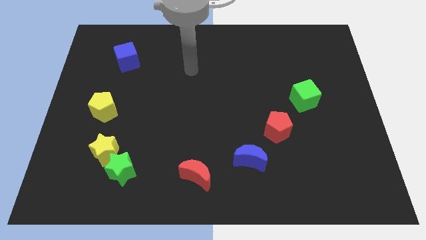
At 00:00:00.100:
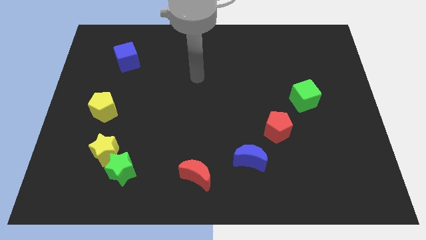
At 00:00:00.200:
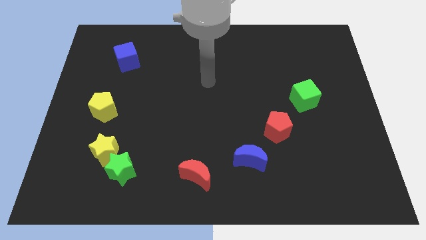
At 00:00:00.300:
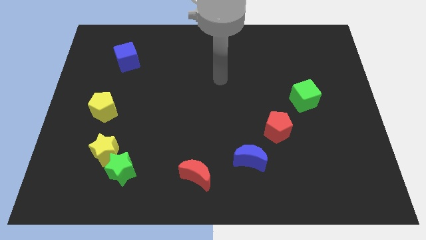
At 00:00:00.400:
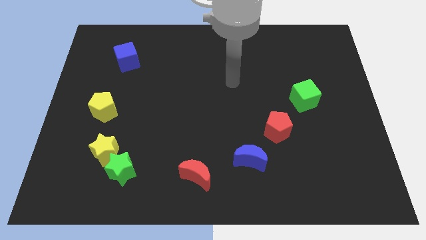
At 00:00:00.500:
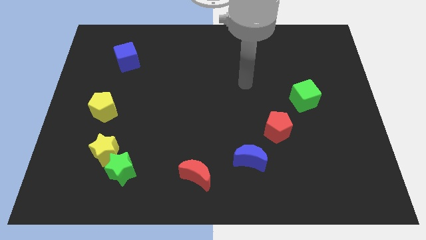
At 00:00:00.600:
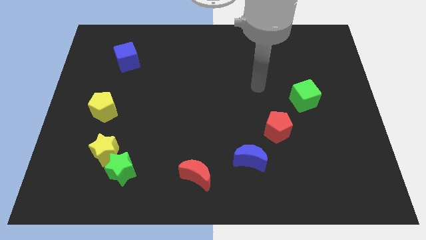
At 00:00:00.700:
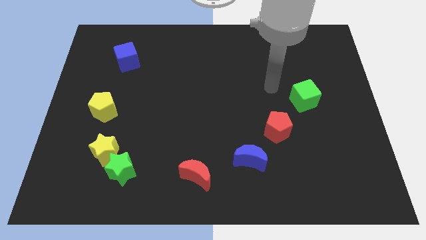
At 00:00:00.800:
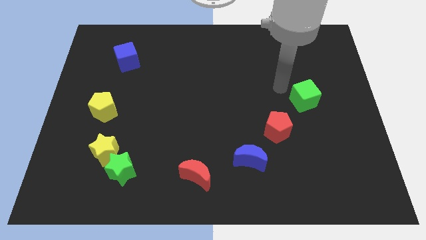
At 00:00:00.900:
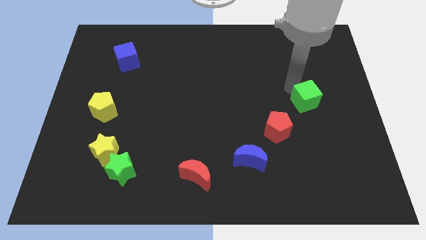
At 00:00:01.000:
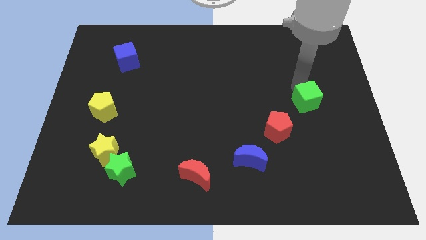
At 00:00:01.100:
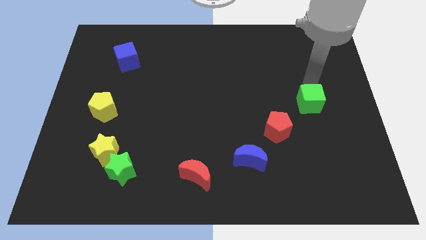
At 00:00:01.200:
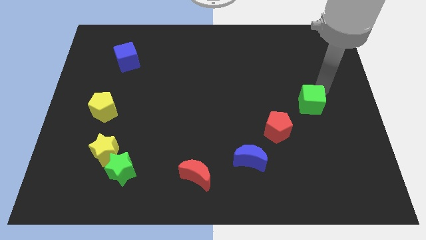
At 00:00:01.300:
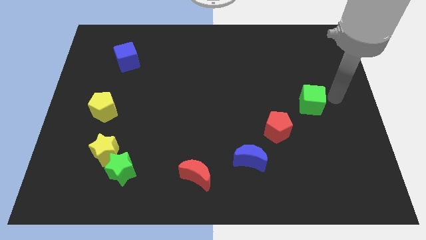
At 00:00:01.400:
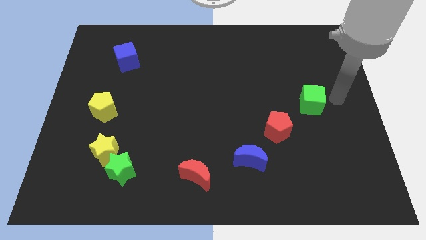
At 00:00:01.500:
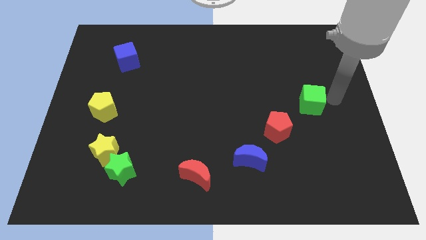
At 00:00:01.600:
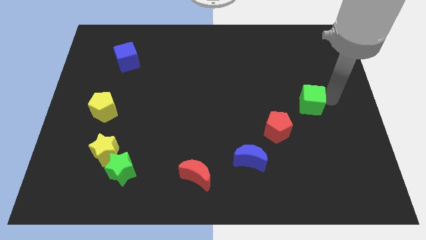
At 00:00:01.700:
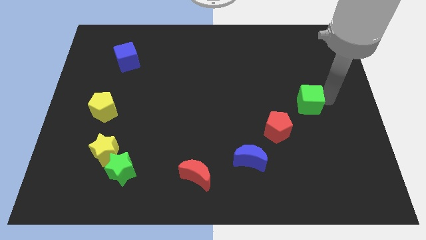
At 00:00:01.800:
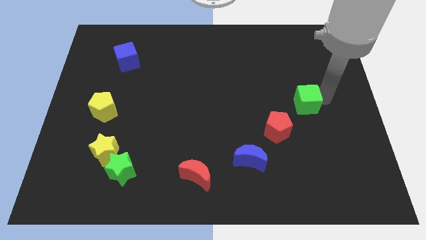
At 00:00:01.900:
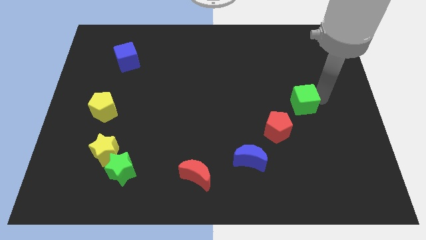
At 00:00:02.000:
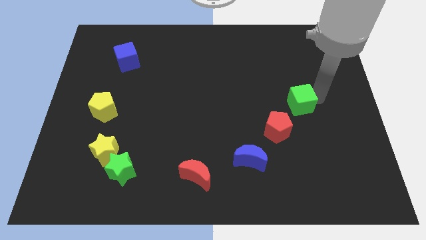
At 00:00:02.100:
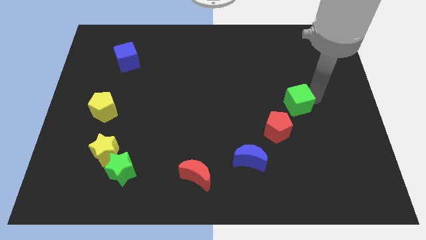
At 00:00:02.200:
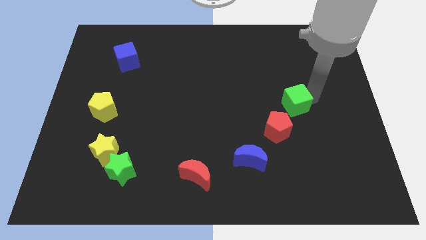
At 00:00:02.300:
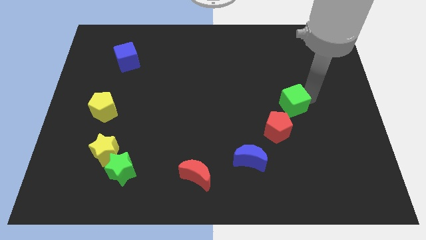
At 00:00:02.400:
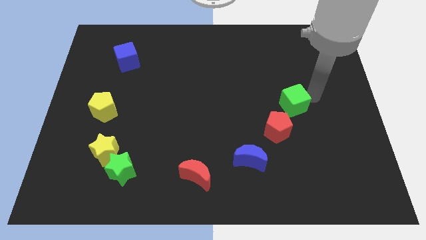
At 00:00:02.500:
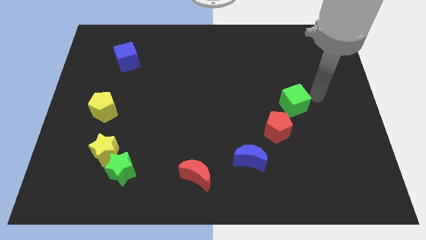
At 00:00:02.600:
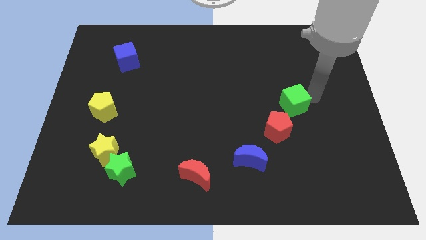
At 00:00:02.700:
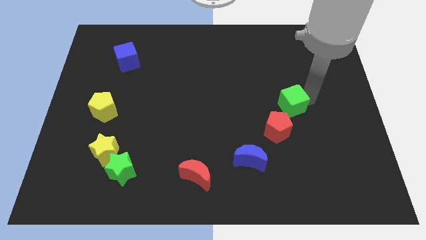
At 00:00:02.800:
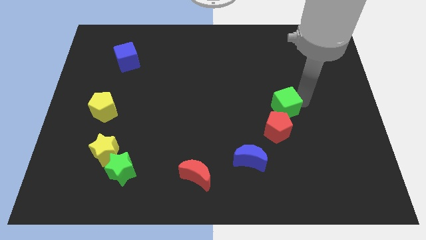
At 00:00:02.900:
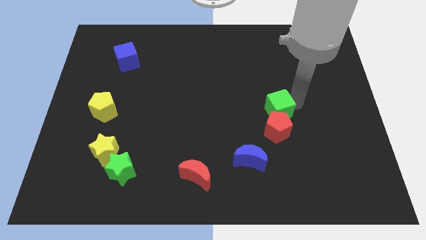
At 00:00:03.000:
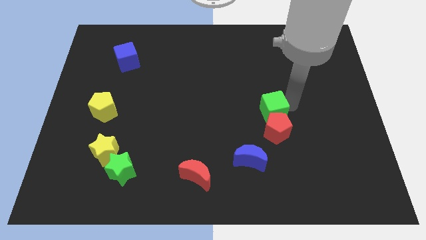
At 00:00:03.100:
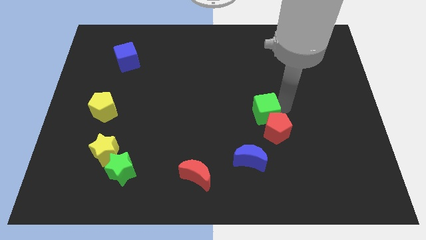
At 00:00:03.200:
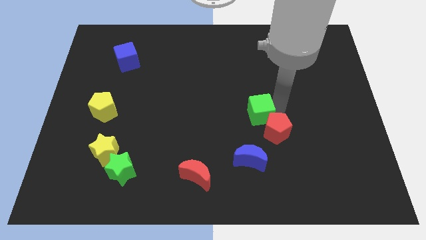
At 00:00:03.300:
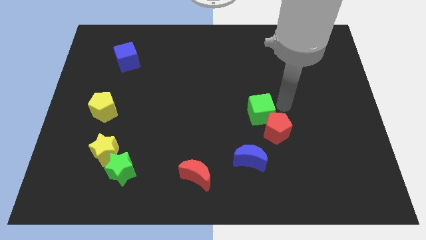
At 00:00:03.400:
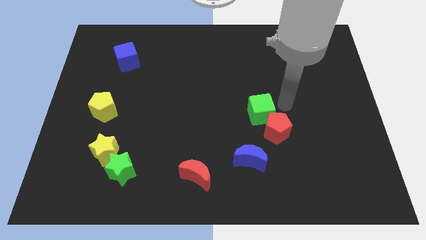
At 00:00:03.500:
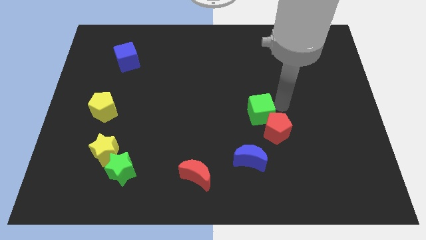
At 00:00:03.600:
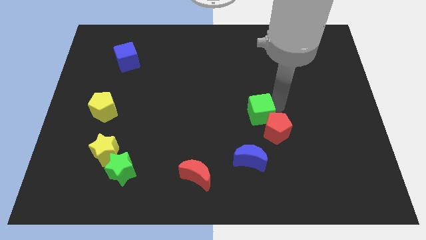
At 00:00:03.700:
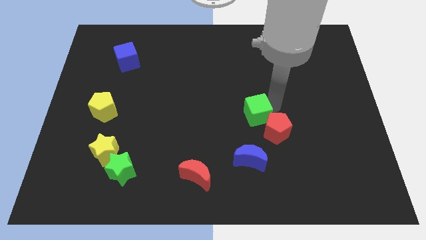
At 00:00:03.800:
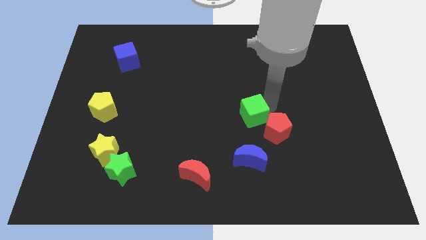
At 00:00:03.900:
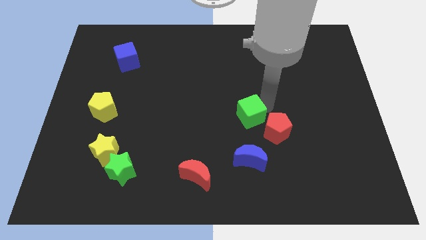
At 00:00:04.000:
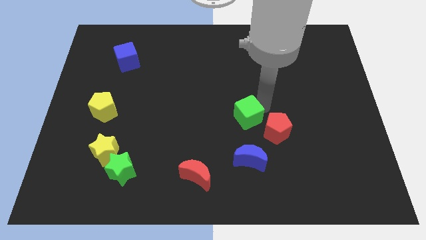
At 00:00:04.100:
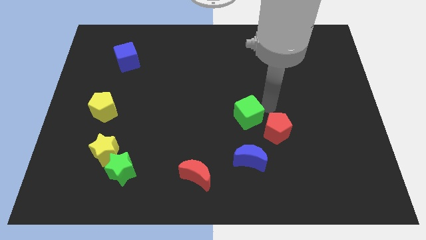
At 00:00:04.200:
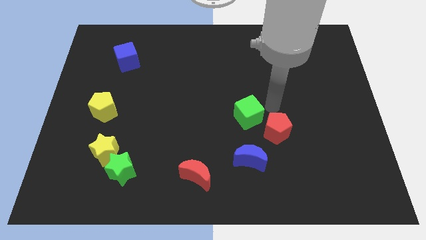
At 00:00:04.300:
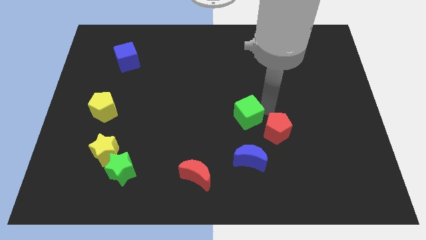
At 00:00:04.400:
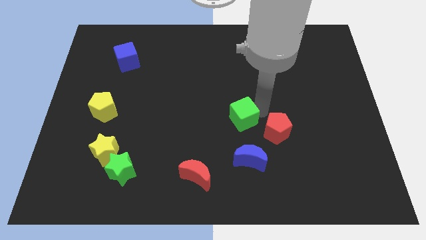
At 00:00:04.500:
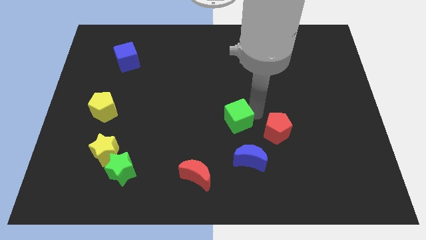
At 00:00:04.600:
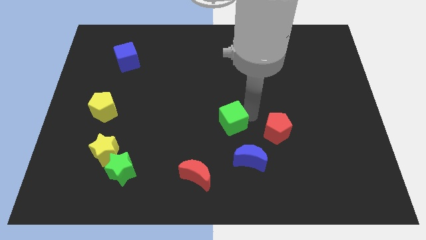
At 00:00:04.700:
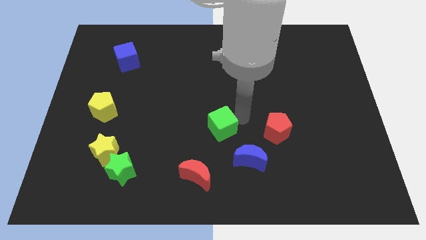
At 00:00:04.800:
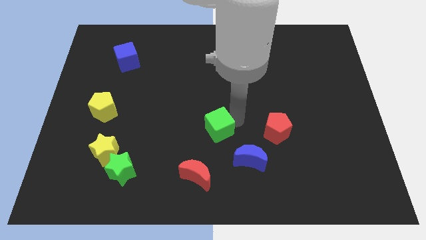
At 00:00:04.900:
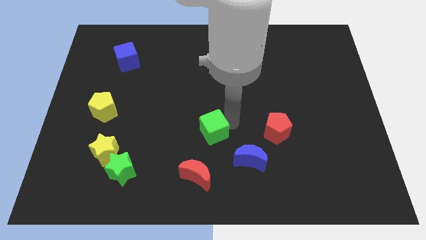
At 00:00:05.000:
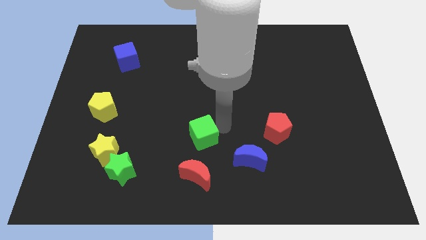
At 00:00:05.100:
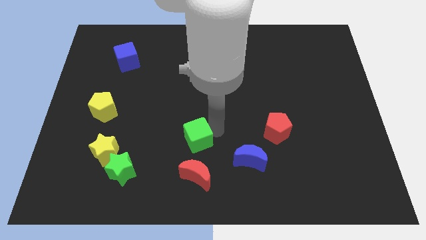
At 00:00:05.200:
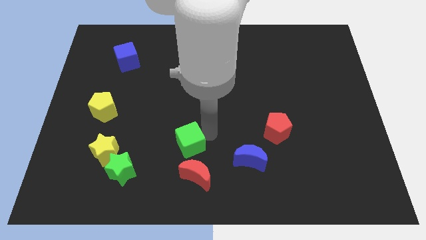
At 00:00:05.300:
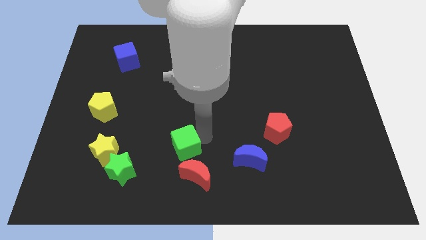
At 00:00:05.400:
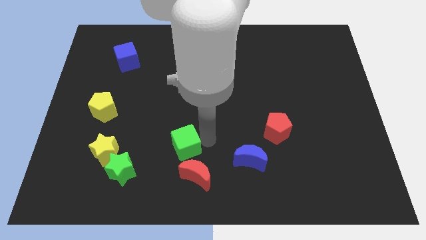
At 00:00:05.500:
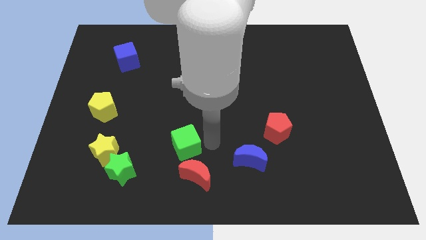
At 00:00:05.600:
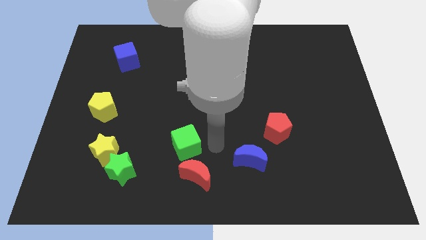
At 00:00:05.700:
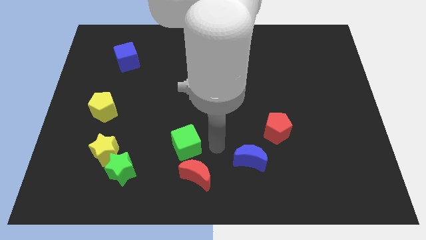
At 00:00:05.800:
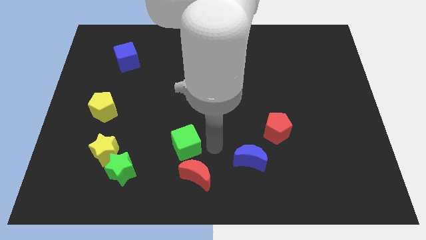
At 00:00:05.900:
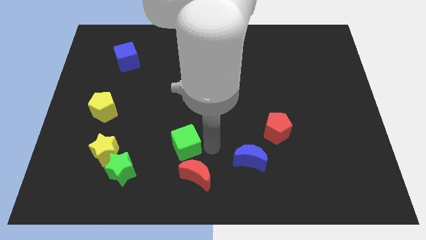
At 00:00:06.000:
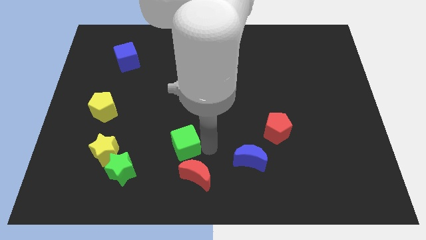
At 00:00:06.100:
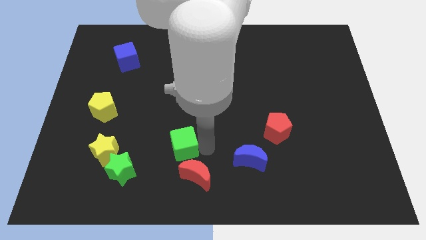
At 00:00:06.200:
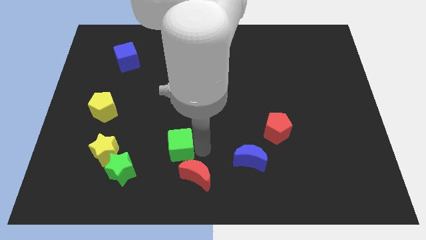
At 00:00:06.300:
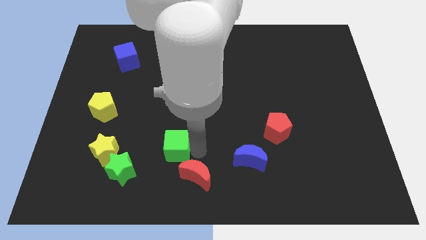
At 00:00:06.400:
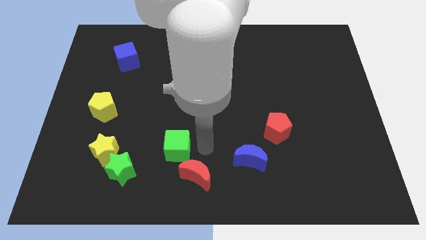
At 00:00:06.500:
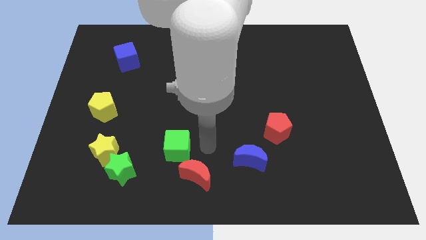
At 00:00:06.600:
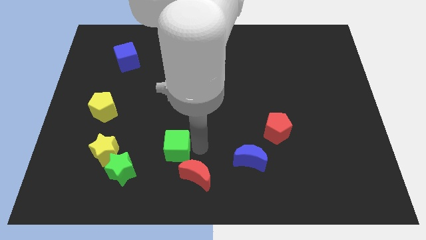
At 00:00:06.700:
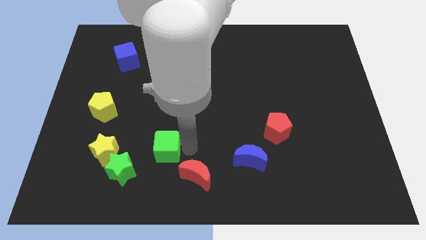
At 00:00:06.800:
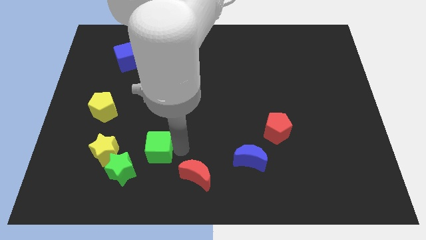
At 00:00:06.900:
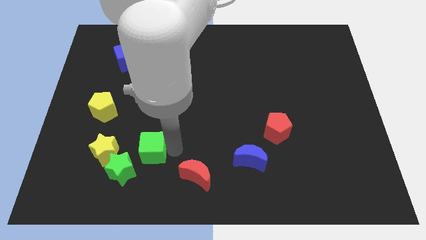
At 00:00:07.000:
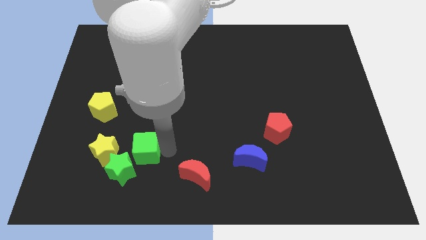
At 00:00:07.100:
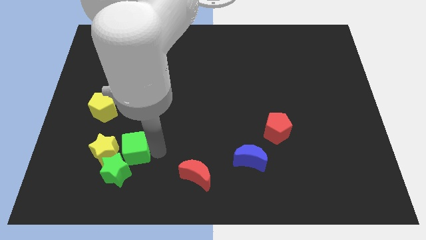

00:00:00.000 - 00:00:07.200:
slide the green cube close to the yellow star
